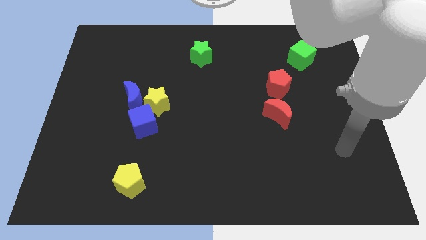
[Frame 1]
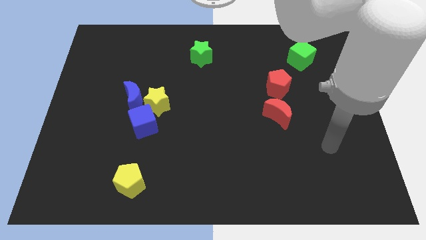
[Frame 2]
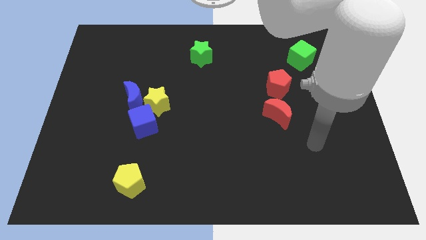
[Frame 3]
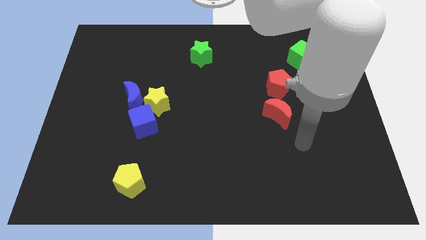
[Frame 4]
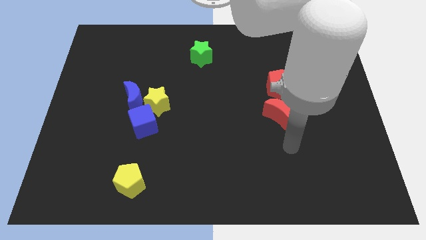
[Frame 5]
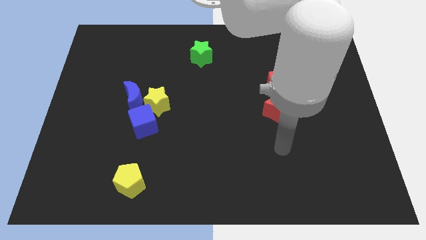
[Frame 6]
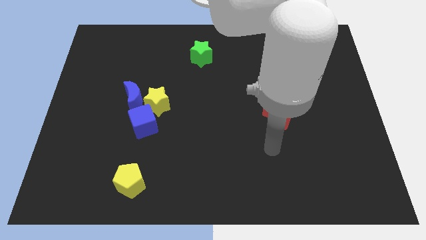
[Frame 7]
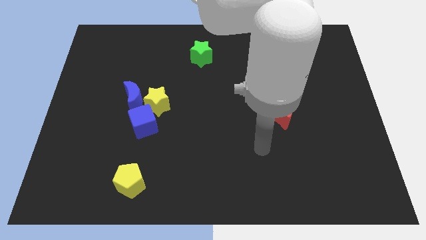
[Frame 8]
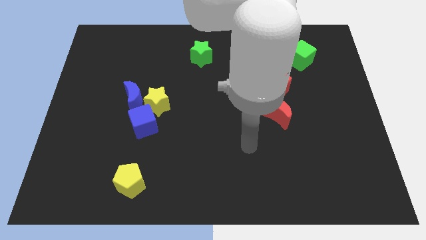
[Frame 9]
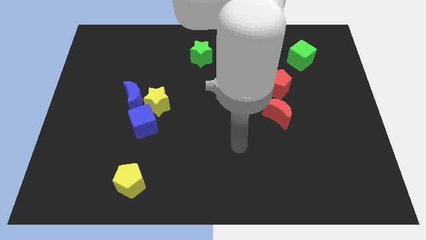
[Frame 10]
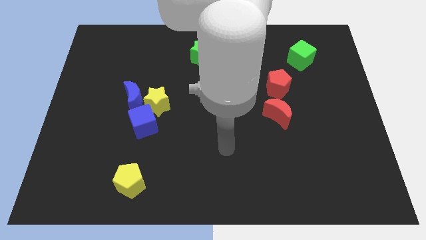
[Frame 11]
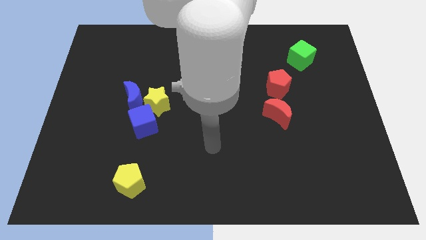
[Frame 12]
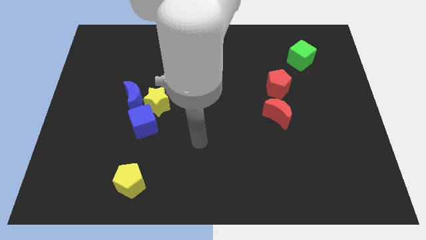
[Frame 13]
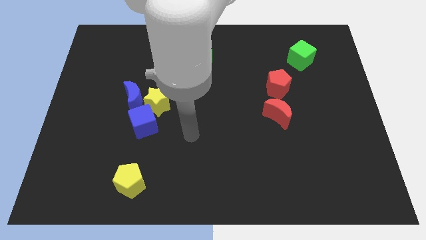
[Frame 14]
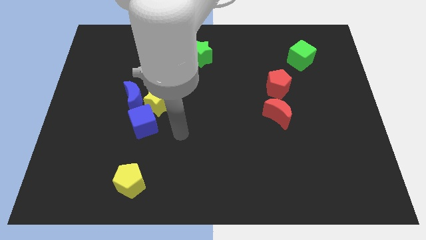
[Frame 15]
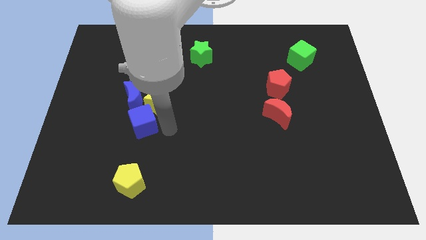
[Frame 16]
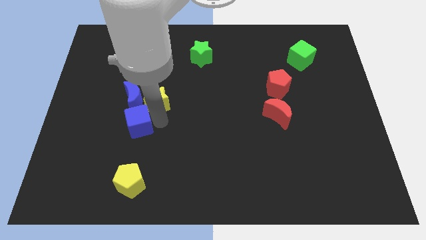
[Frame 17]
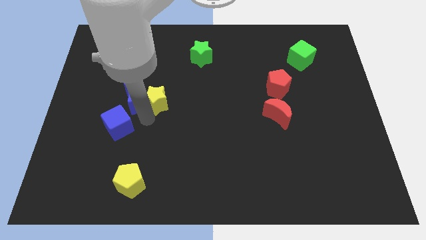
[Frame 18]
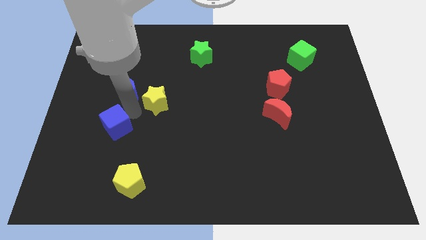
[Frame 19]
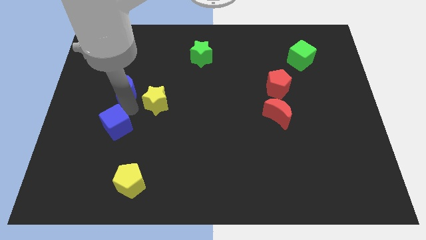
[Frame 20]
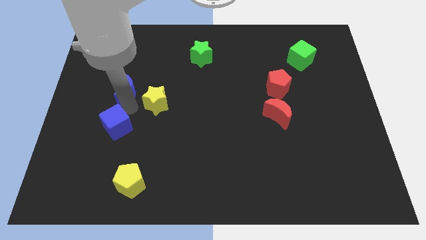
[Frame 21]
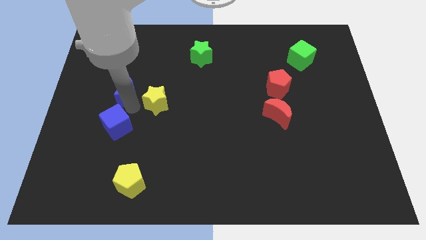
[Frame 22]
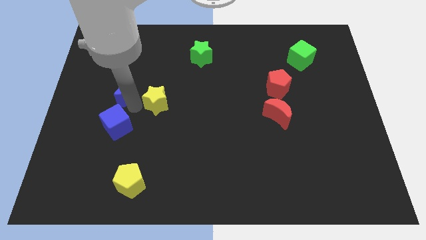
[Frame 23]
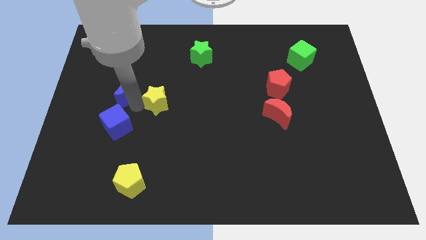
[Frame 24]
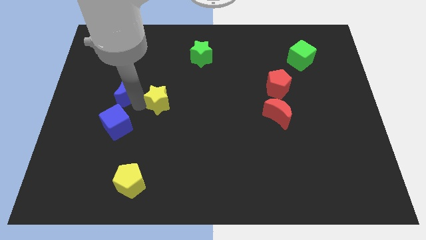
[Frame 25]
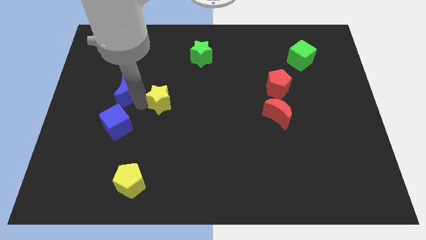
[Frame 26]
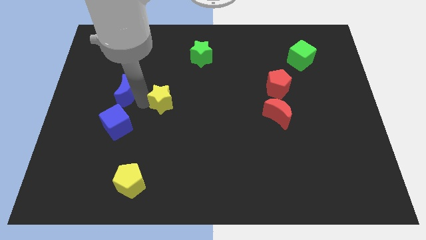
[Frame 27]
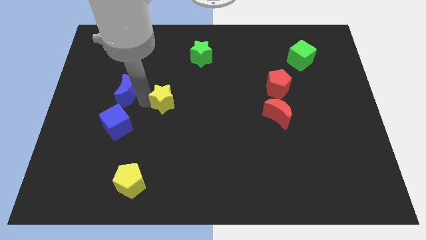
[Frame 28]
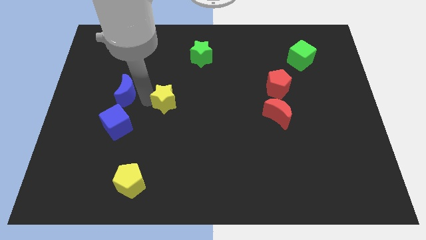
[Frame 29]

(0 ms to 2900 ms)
move the yellow star away from the blue moon and blue cube

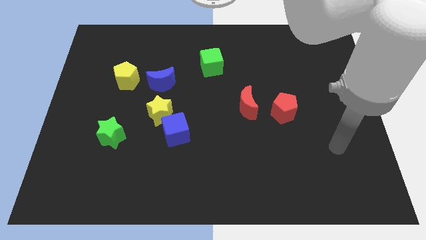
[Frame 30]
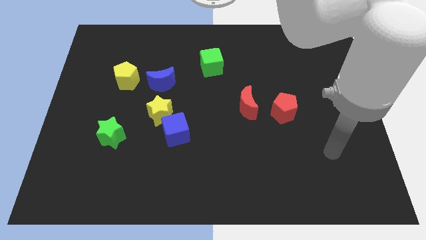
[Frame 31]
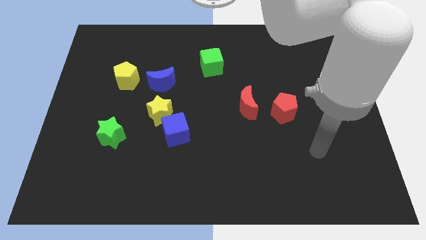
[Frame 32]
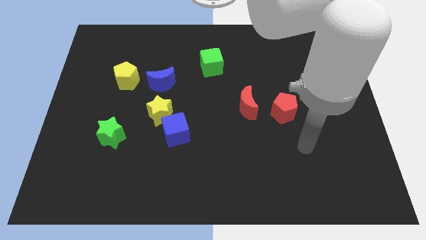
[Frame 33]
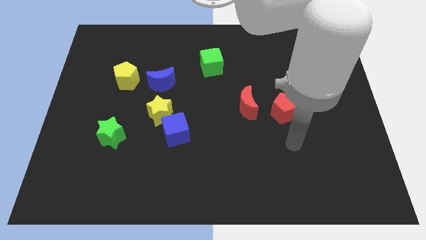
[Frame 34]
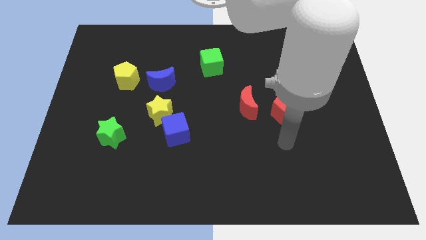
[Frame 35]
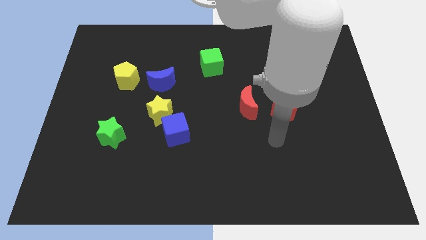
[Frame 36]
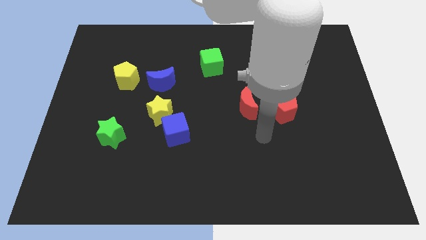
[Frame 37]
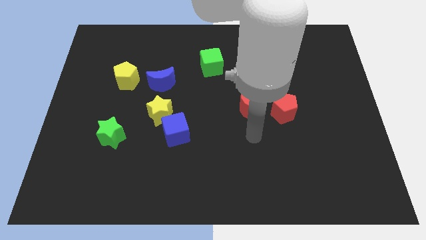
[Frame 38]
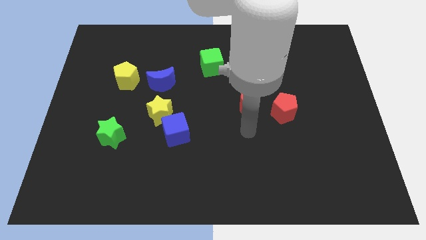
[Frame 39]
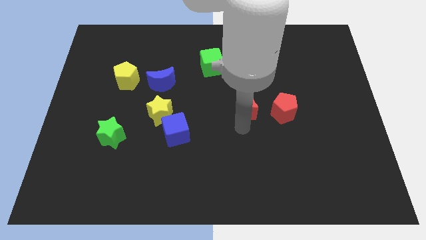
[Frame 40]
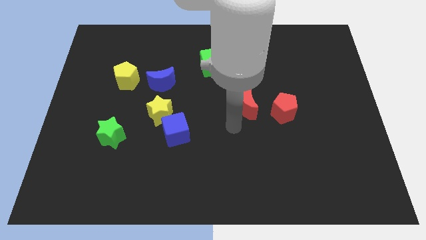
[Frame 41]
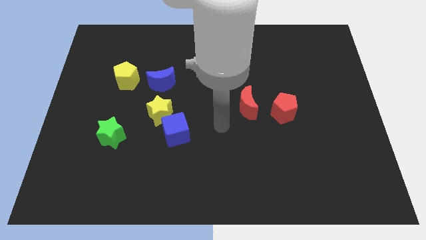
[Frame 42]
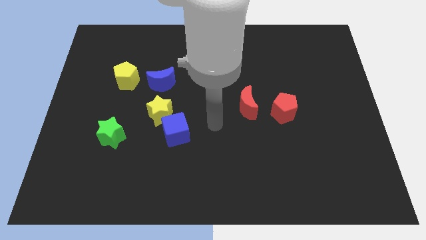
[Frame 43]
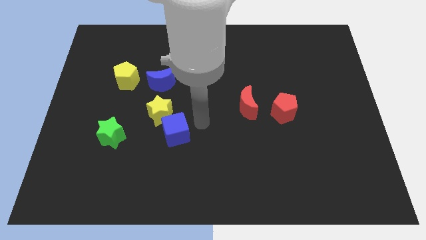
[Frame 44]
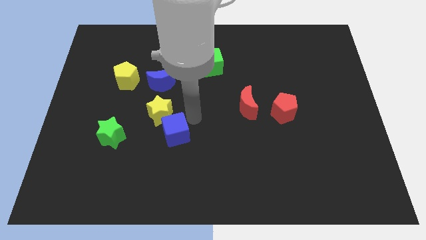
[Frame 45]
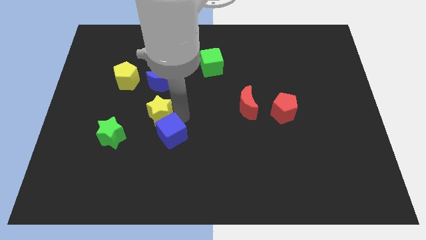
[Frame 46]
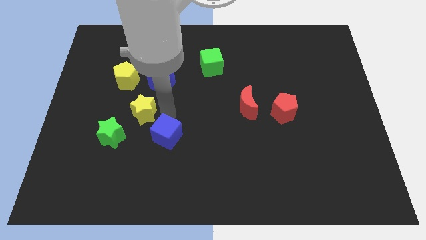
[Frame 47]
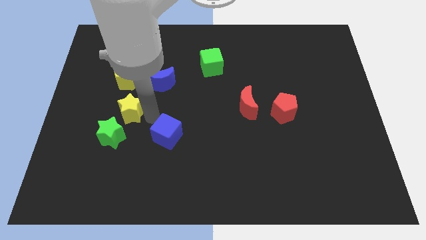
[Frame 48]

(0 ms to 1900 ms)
move the blue cube away from the yellow star

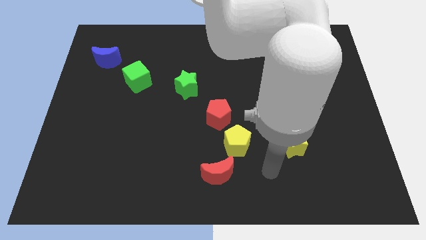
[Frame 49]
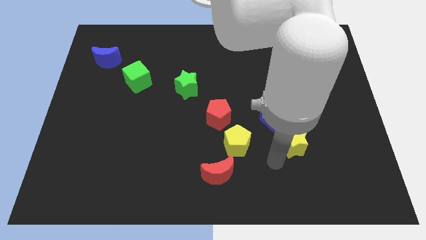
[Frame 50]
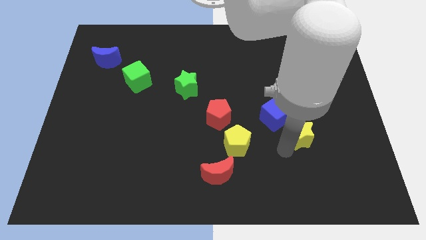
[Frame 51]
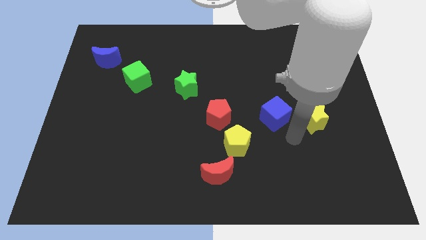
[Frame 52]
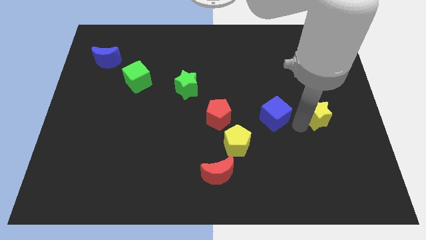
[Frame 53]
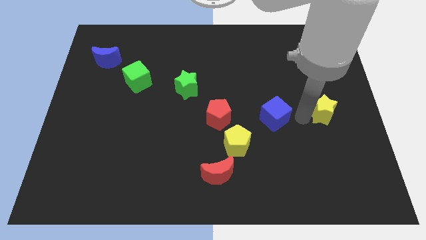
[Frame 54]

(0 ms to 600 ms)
separate the blue cube from the yellow star

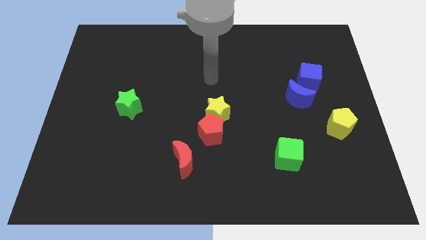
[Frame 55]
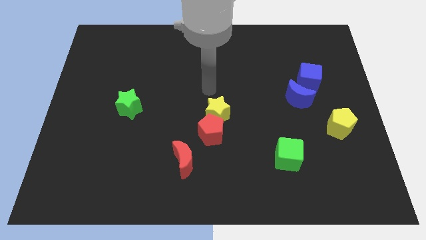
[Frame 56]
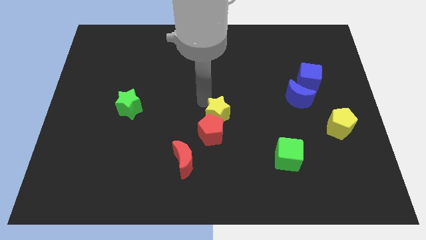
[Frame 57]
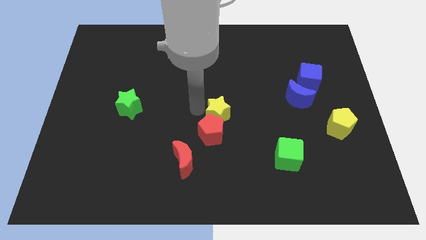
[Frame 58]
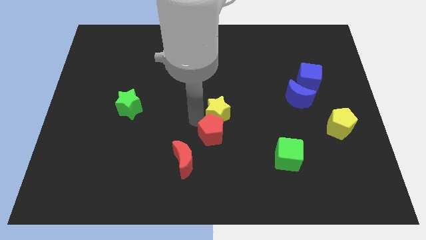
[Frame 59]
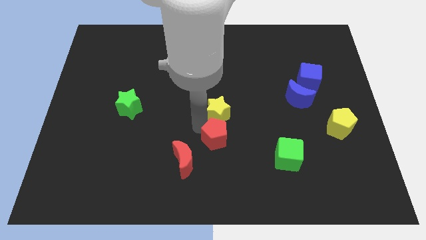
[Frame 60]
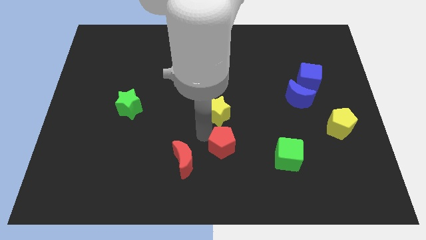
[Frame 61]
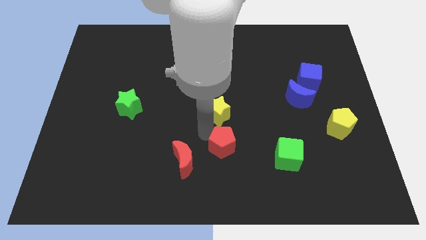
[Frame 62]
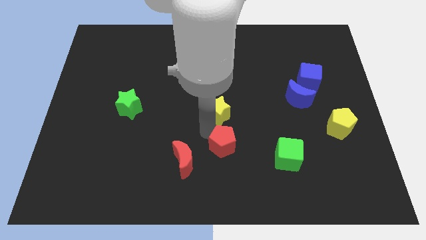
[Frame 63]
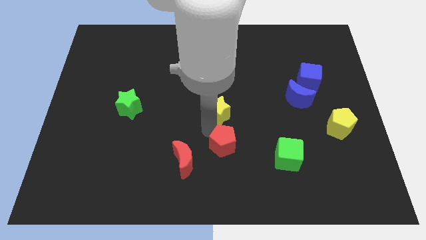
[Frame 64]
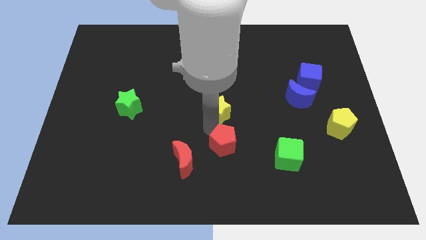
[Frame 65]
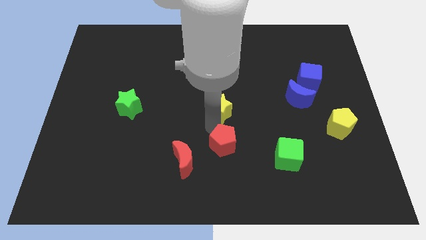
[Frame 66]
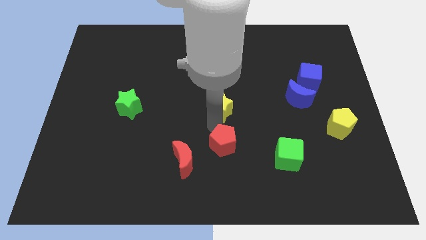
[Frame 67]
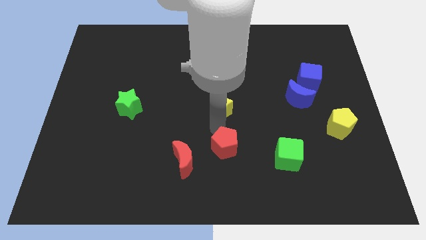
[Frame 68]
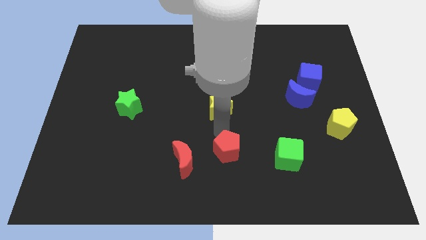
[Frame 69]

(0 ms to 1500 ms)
separate the yellow star from the red pentagon

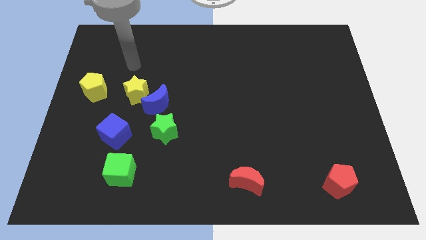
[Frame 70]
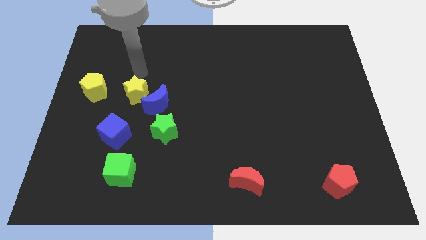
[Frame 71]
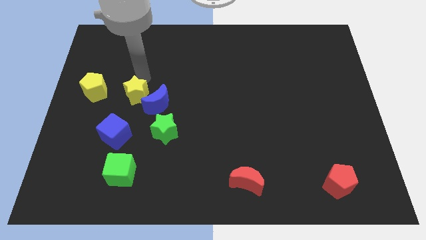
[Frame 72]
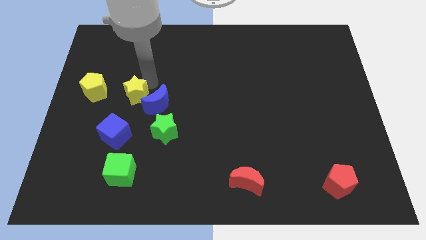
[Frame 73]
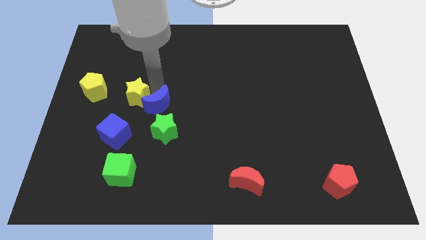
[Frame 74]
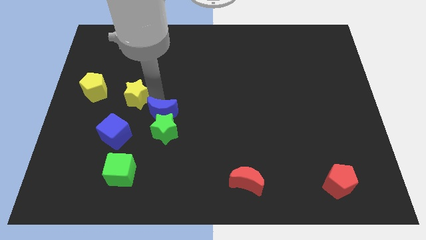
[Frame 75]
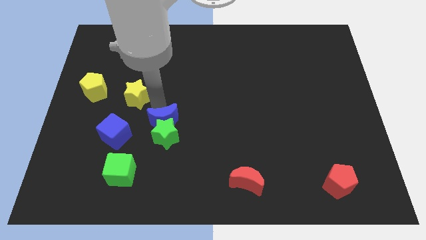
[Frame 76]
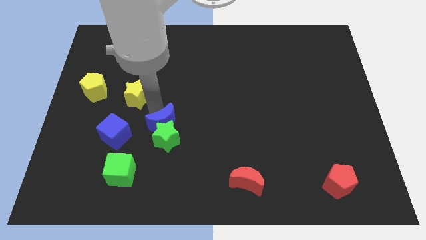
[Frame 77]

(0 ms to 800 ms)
move the yellow star away from the blue moon

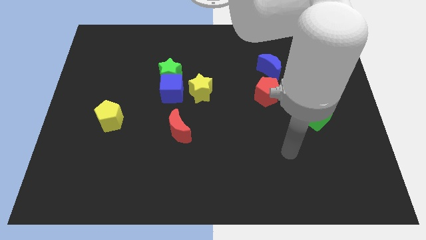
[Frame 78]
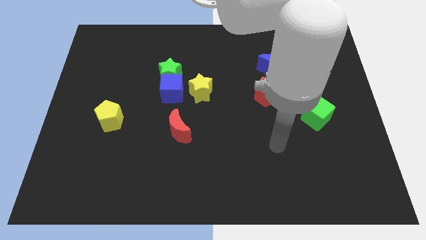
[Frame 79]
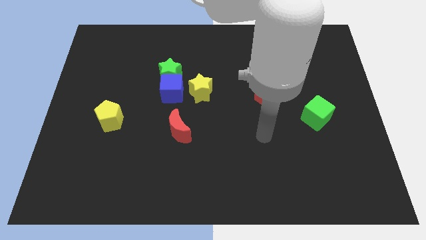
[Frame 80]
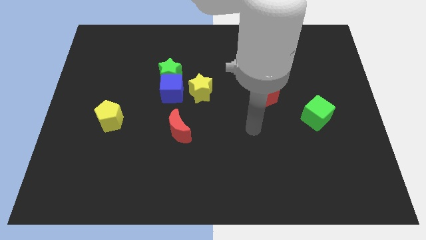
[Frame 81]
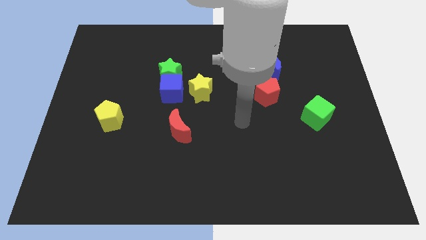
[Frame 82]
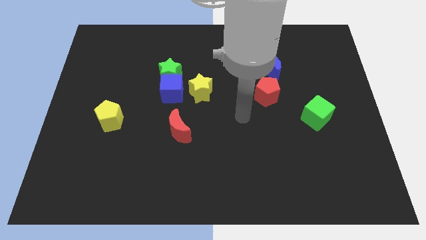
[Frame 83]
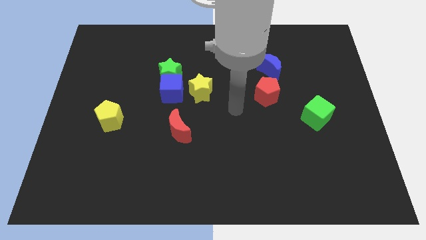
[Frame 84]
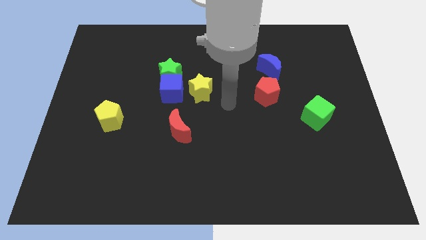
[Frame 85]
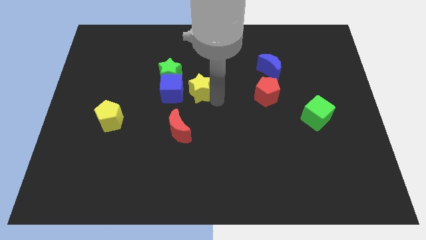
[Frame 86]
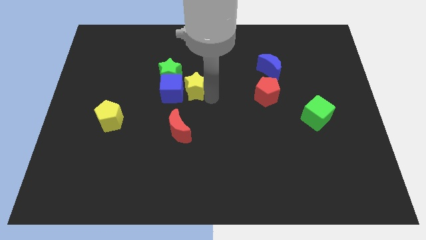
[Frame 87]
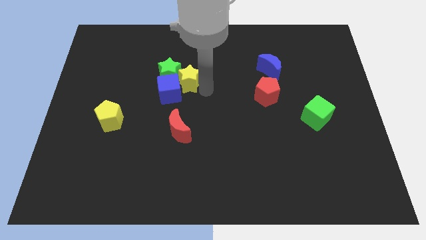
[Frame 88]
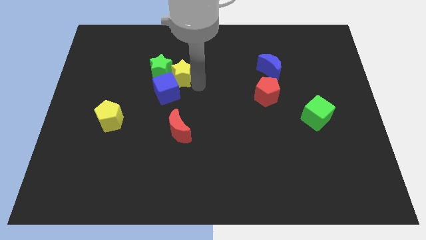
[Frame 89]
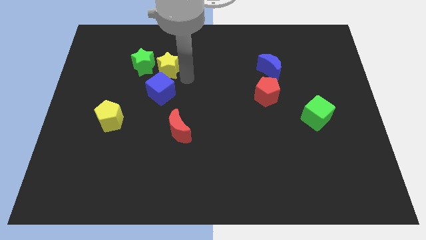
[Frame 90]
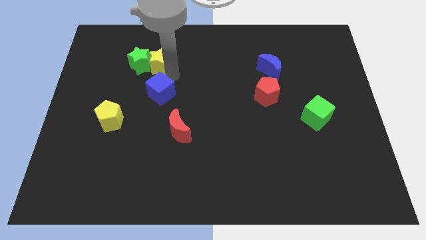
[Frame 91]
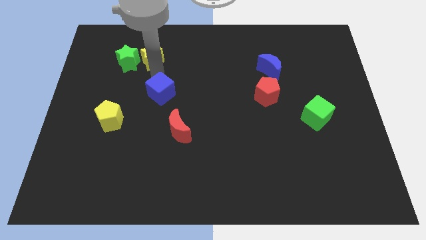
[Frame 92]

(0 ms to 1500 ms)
pull the blue cube apart from the green star and yellow star

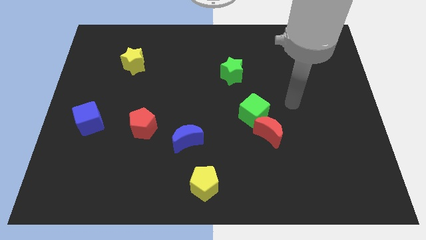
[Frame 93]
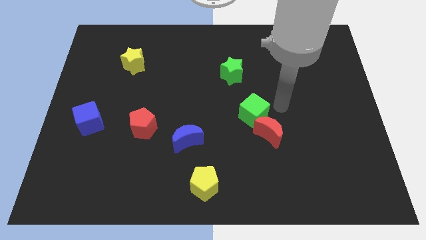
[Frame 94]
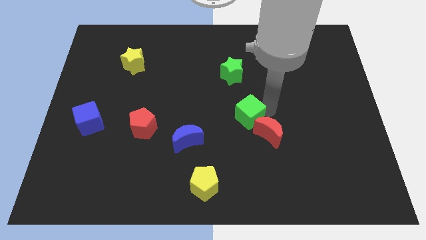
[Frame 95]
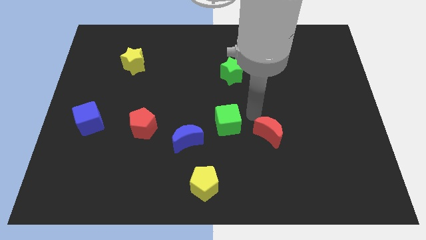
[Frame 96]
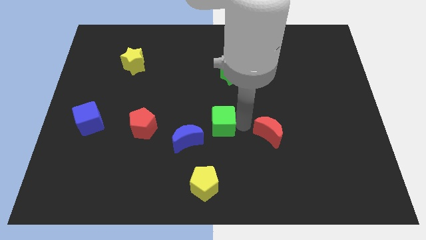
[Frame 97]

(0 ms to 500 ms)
separate the red moon from the green cube
